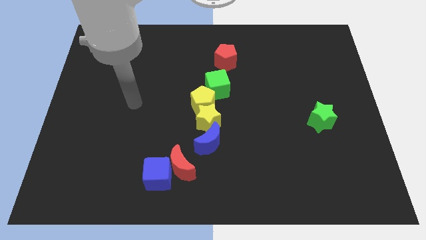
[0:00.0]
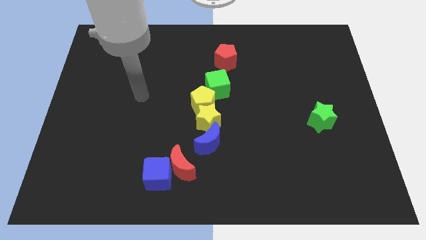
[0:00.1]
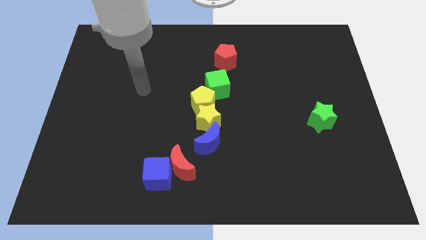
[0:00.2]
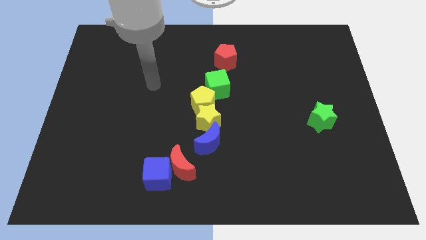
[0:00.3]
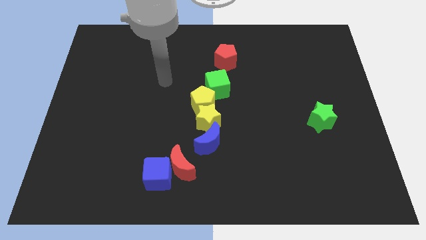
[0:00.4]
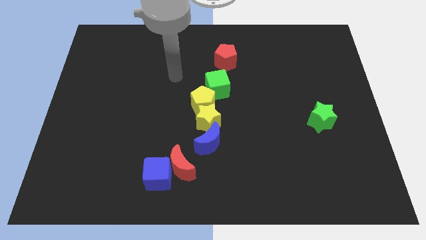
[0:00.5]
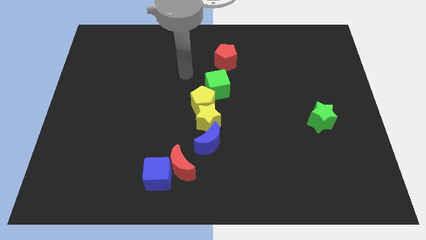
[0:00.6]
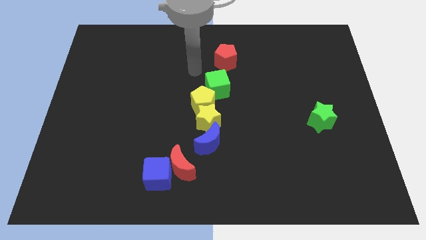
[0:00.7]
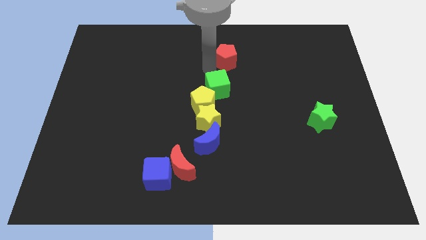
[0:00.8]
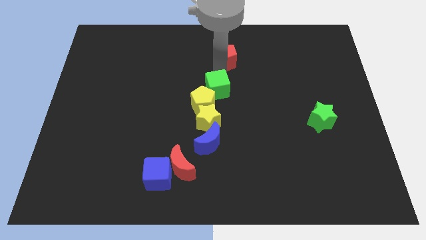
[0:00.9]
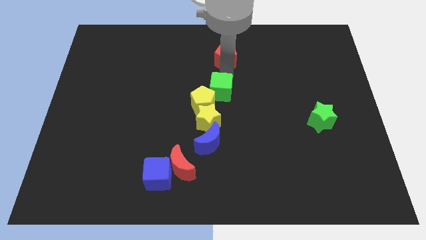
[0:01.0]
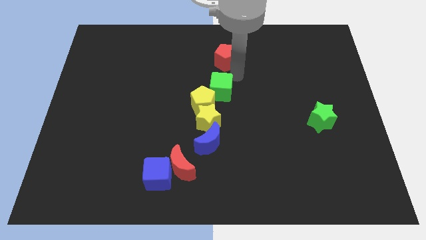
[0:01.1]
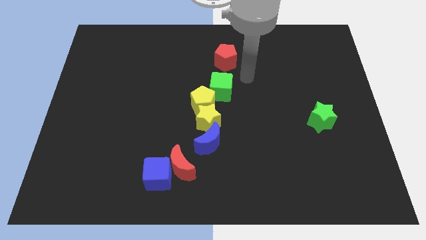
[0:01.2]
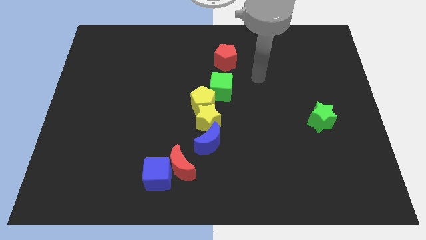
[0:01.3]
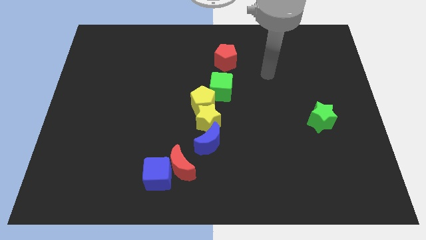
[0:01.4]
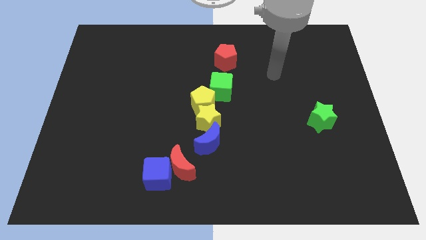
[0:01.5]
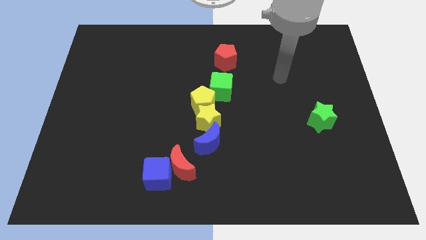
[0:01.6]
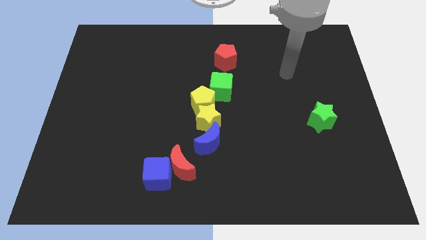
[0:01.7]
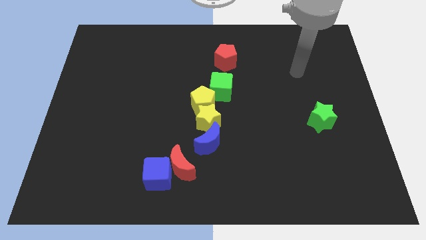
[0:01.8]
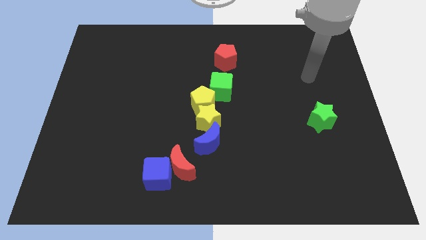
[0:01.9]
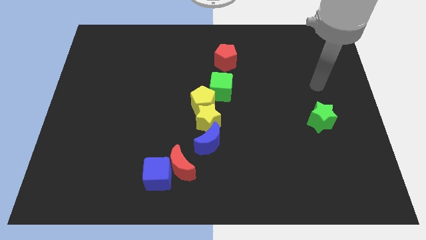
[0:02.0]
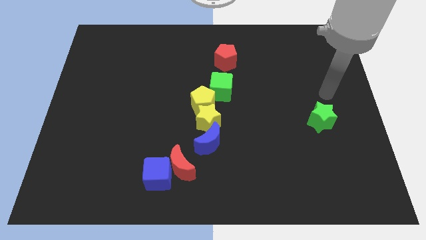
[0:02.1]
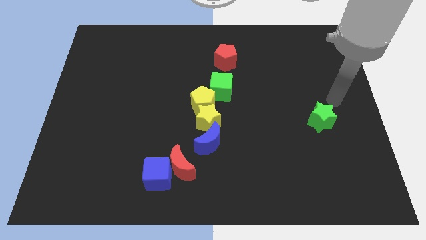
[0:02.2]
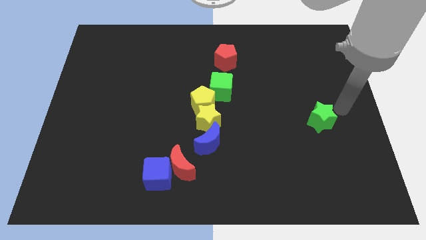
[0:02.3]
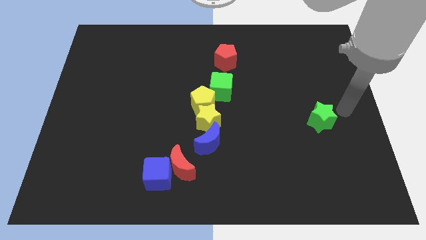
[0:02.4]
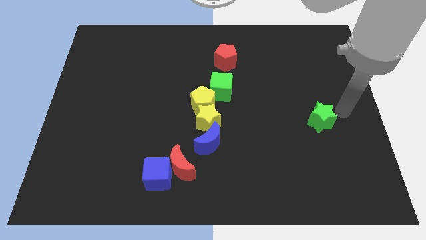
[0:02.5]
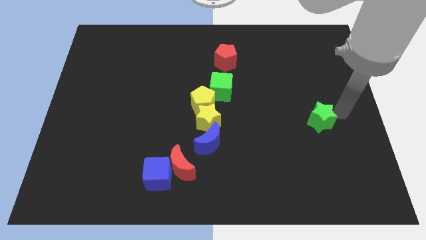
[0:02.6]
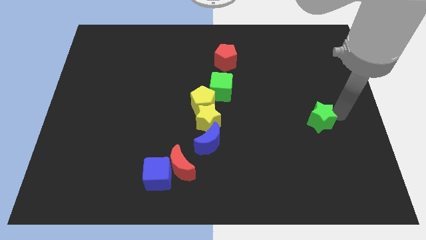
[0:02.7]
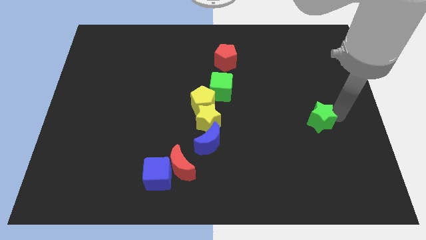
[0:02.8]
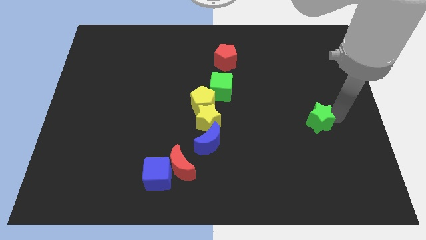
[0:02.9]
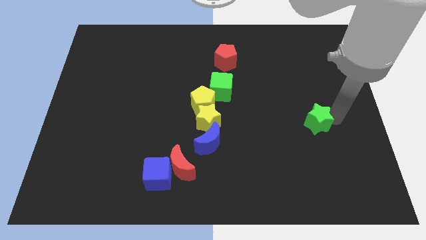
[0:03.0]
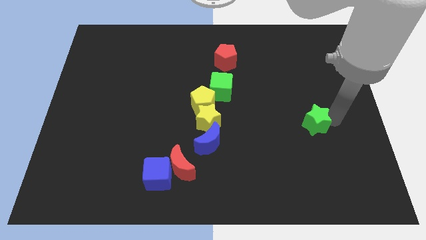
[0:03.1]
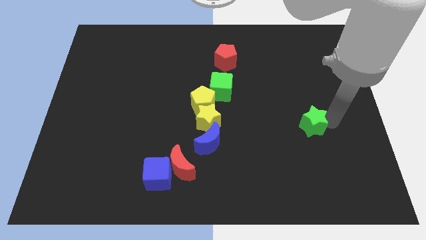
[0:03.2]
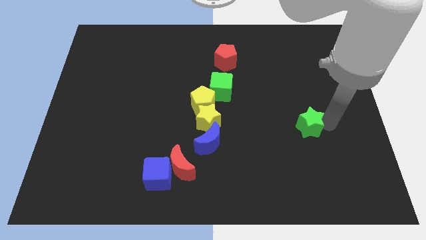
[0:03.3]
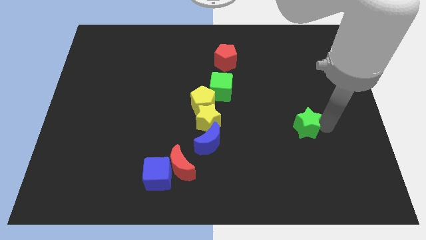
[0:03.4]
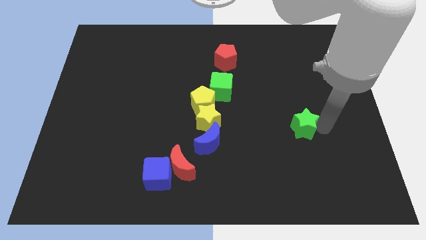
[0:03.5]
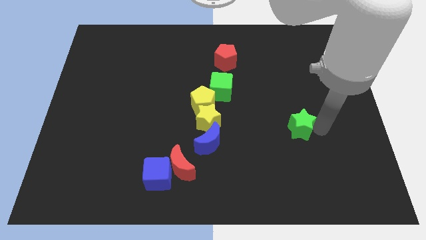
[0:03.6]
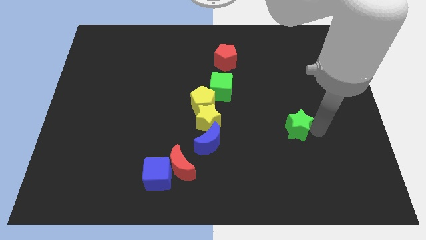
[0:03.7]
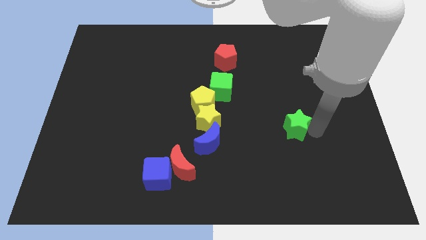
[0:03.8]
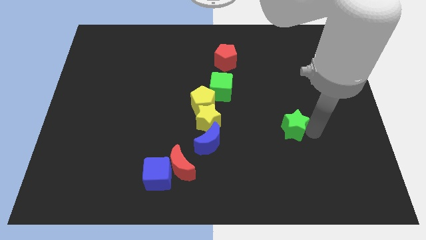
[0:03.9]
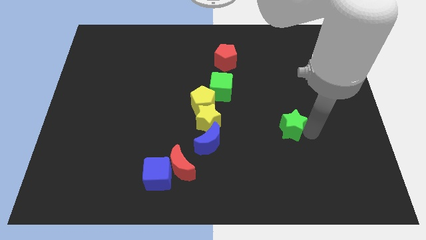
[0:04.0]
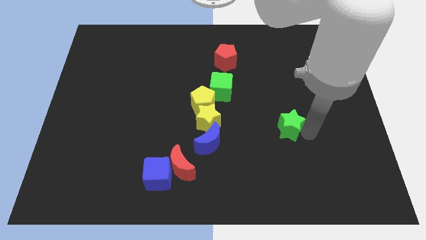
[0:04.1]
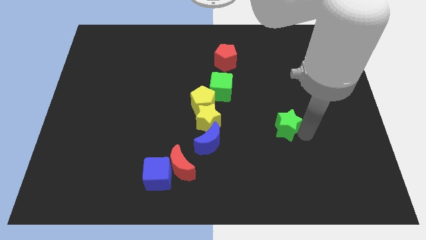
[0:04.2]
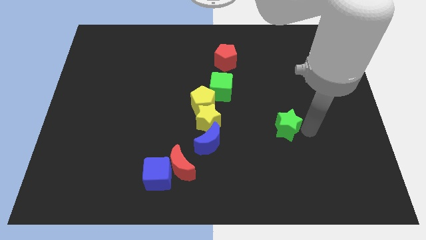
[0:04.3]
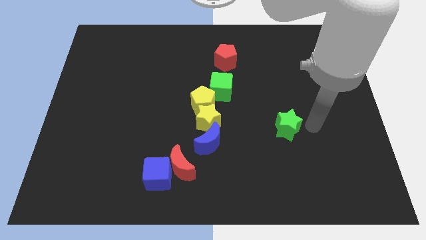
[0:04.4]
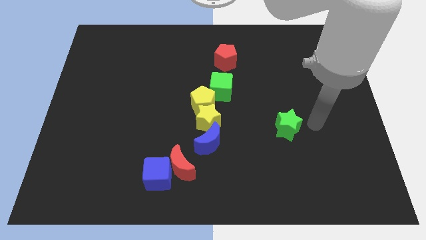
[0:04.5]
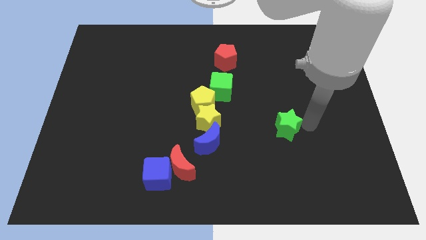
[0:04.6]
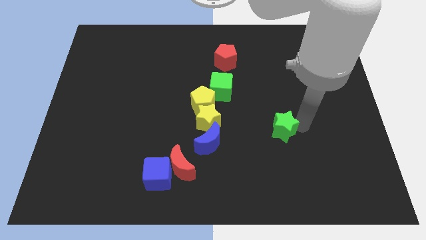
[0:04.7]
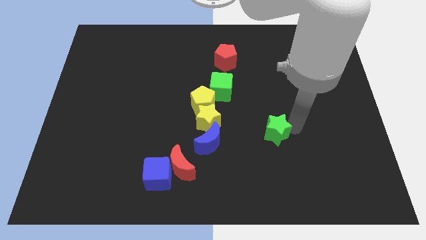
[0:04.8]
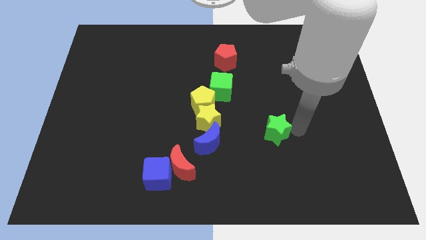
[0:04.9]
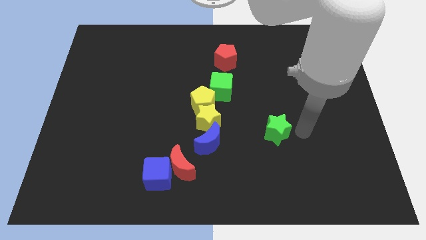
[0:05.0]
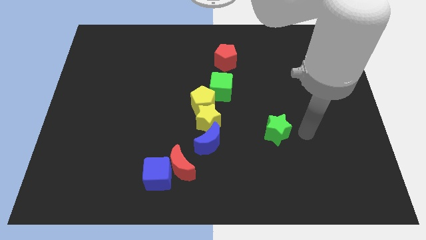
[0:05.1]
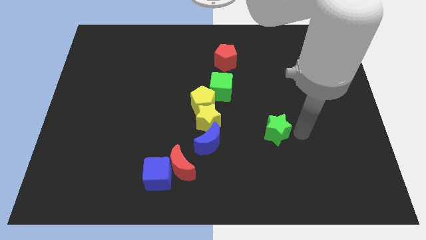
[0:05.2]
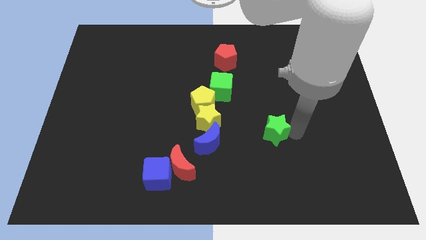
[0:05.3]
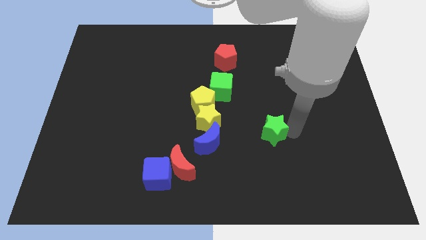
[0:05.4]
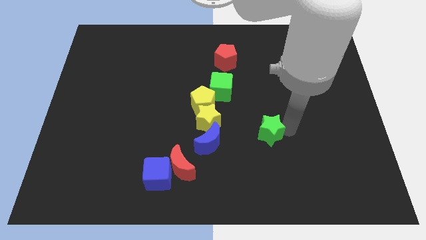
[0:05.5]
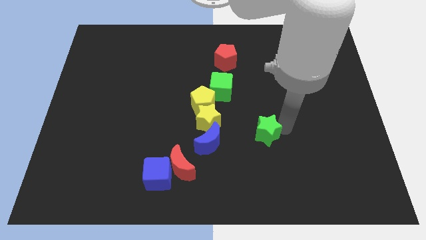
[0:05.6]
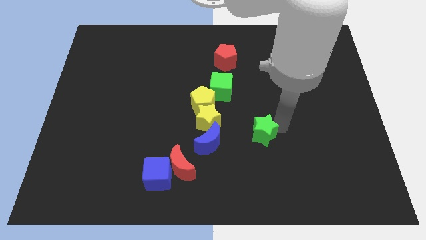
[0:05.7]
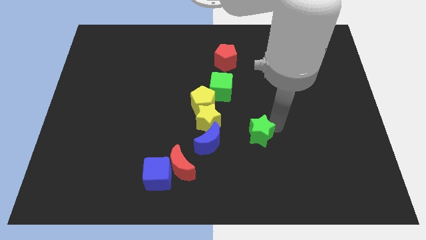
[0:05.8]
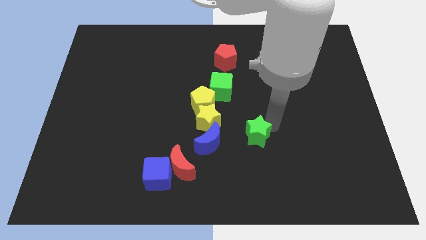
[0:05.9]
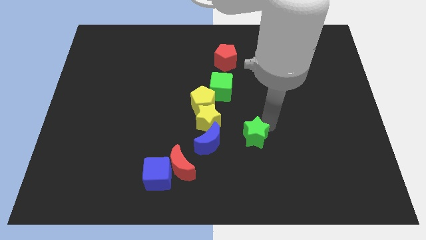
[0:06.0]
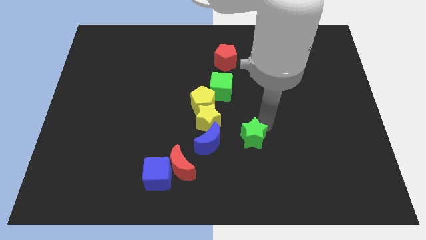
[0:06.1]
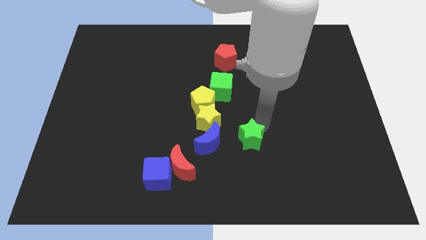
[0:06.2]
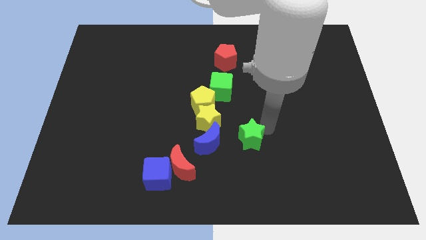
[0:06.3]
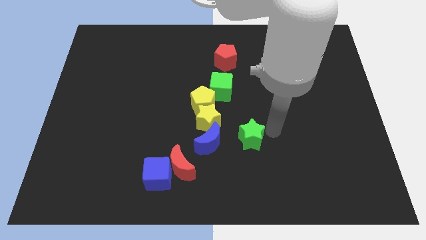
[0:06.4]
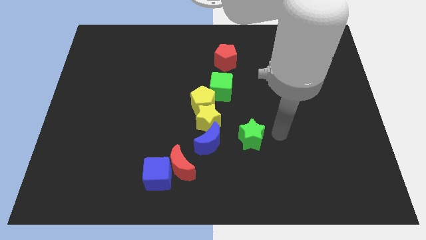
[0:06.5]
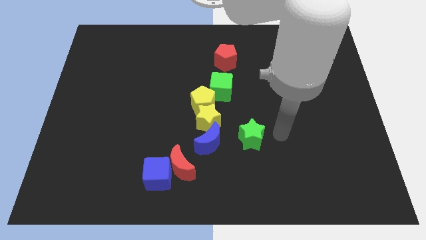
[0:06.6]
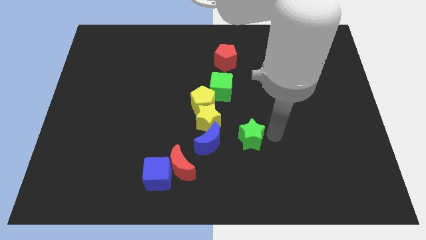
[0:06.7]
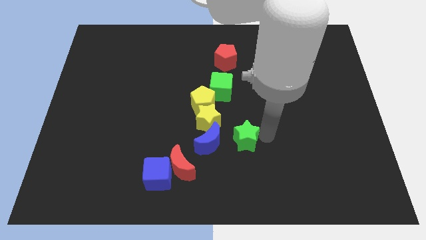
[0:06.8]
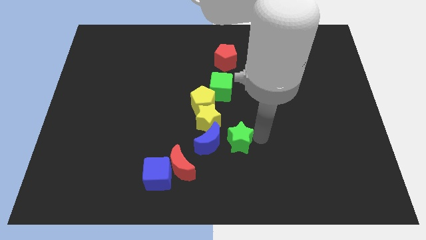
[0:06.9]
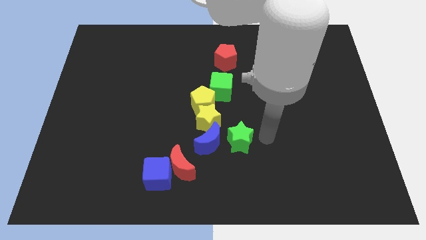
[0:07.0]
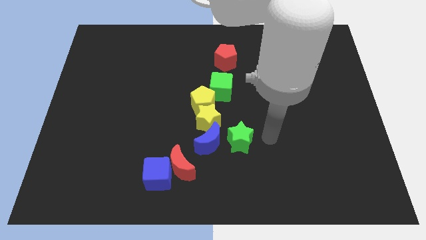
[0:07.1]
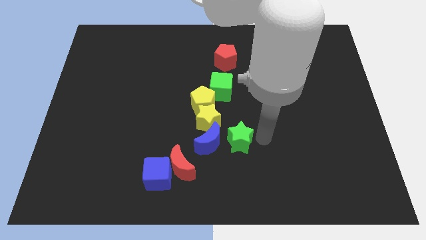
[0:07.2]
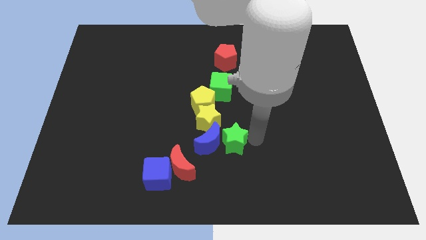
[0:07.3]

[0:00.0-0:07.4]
slide the green star close to the blue moon
